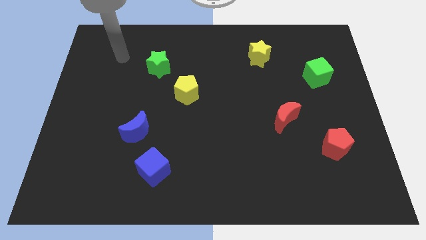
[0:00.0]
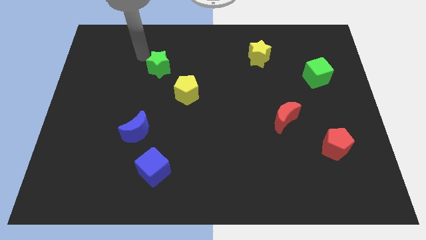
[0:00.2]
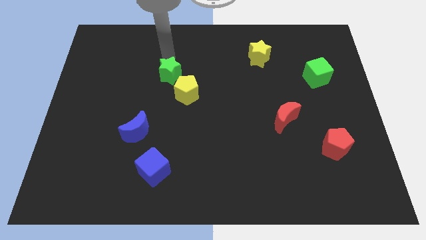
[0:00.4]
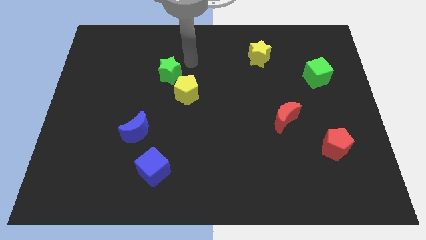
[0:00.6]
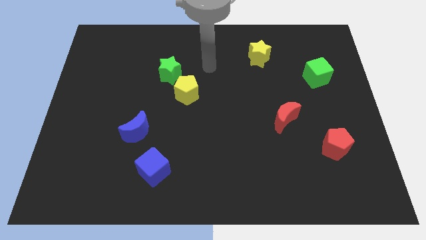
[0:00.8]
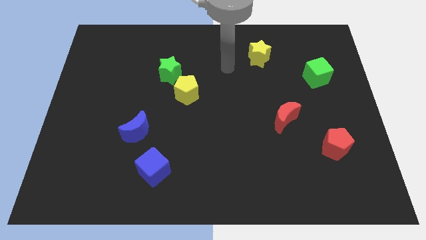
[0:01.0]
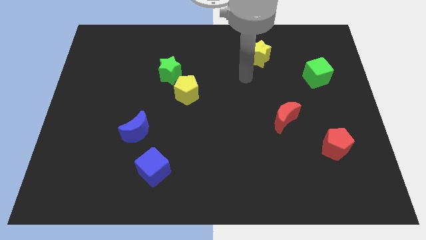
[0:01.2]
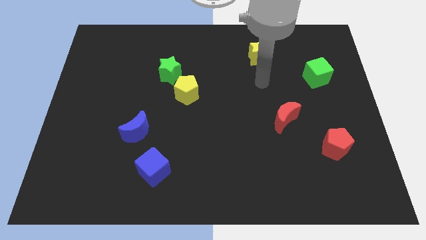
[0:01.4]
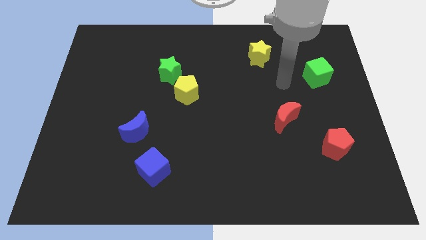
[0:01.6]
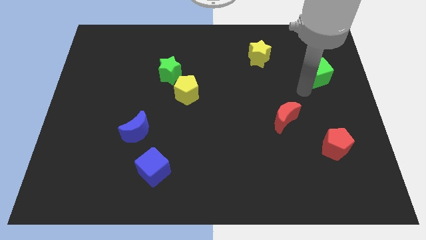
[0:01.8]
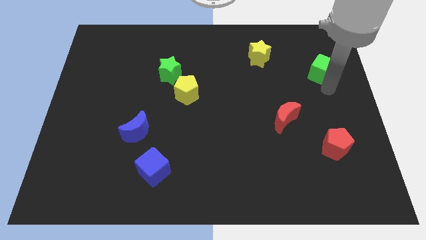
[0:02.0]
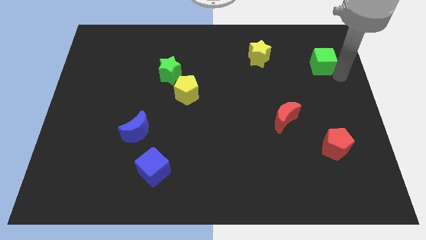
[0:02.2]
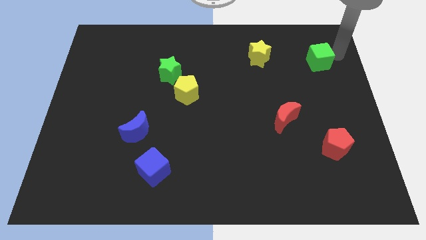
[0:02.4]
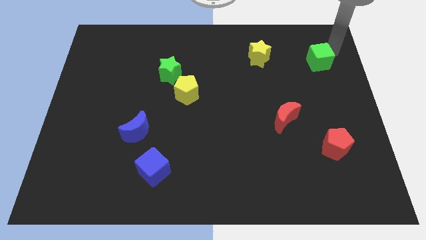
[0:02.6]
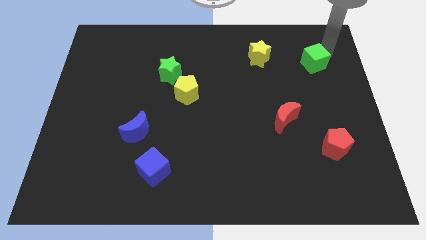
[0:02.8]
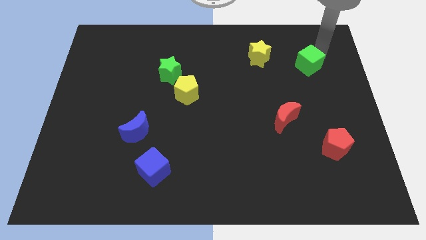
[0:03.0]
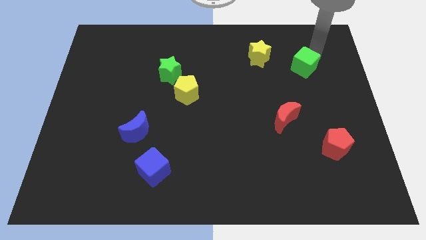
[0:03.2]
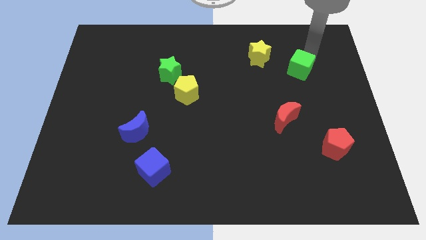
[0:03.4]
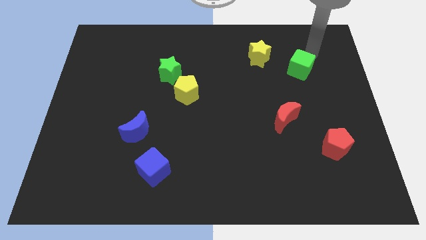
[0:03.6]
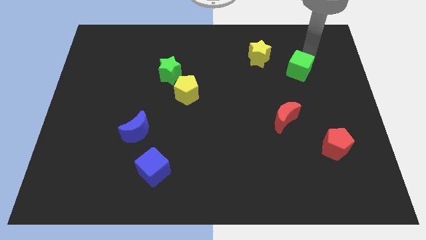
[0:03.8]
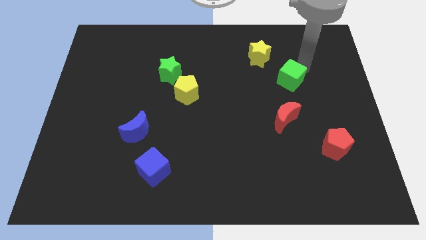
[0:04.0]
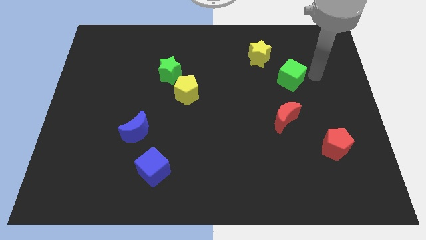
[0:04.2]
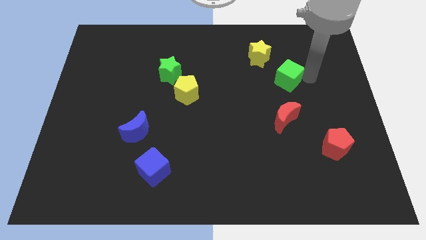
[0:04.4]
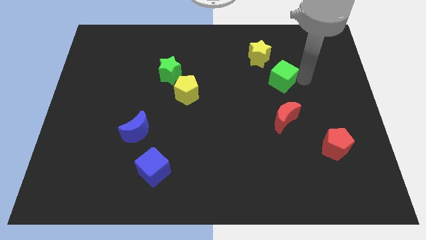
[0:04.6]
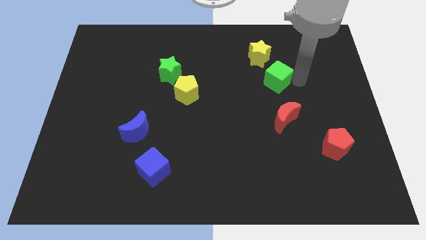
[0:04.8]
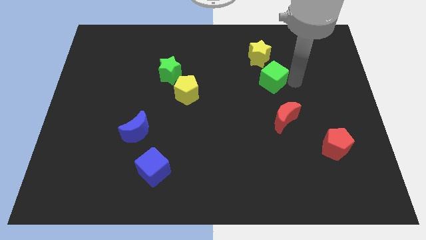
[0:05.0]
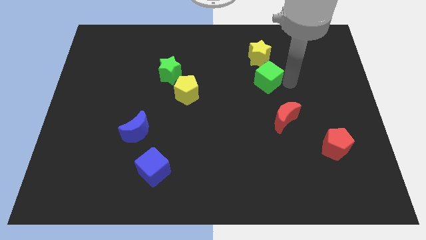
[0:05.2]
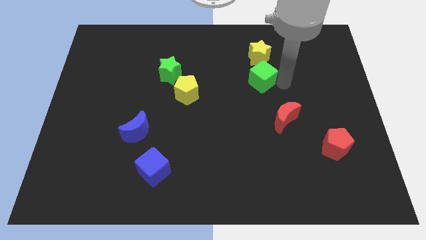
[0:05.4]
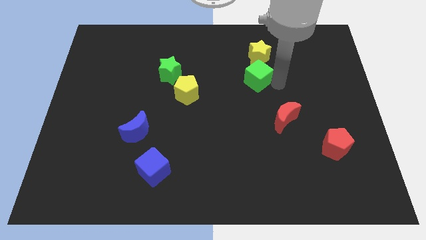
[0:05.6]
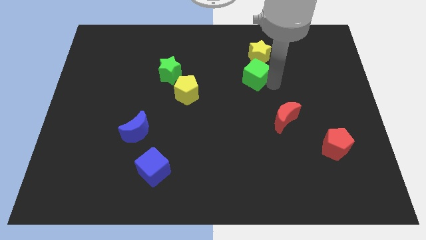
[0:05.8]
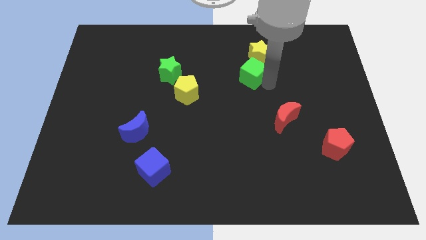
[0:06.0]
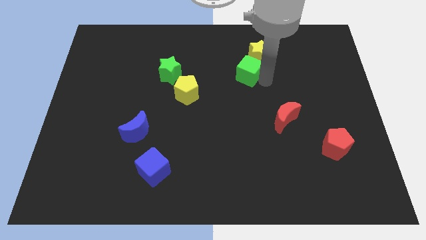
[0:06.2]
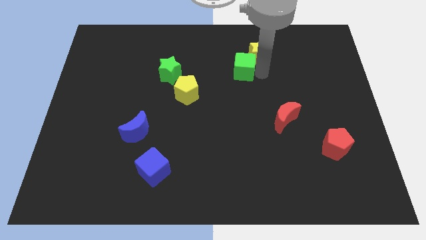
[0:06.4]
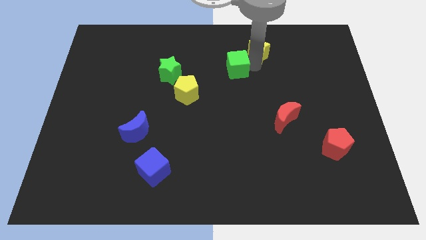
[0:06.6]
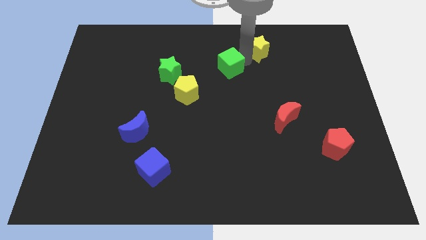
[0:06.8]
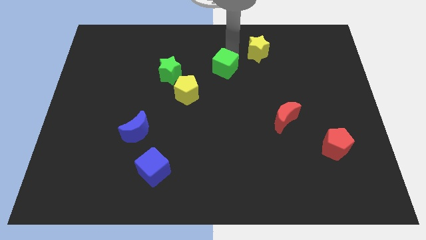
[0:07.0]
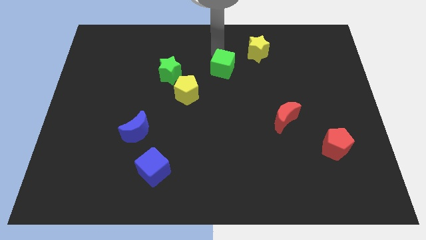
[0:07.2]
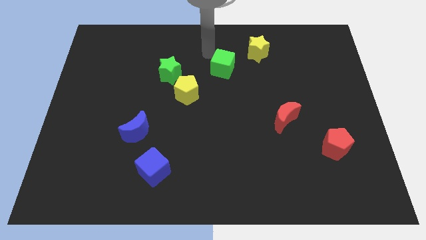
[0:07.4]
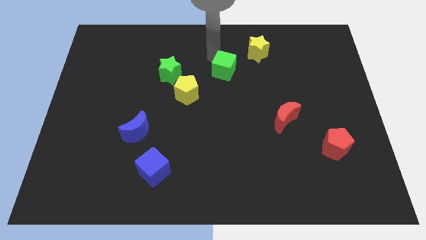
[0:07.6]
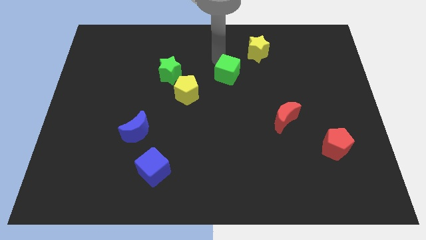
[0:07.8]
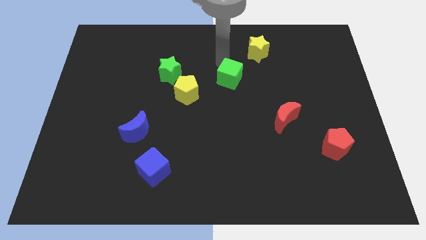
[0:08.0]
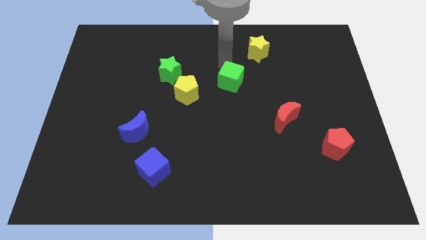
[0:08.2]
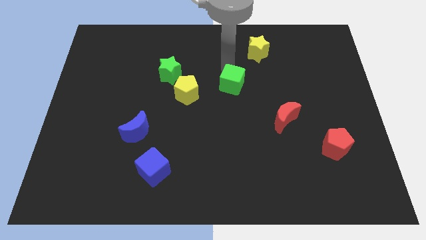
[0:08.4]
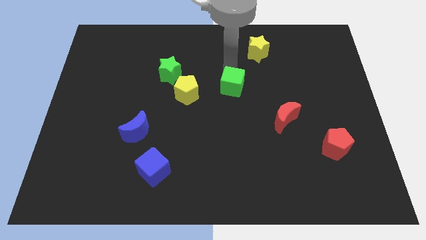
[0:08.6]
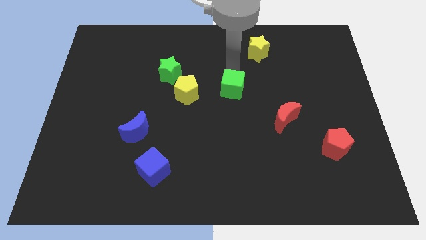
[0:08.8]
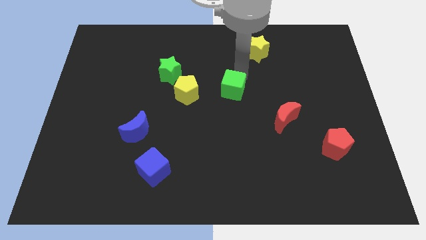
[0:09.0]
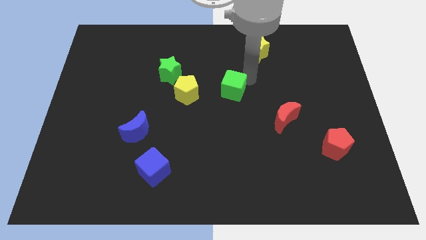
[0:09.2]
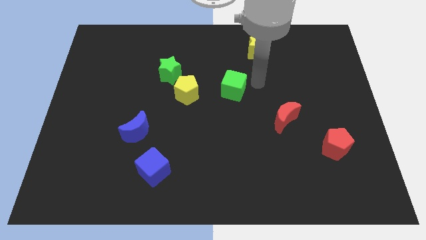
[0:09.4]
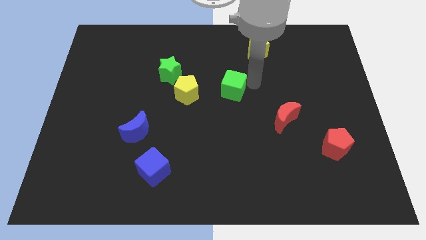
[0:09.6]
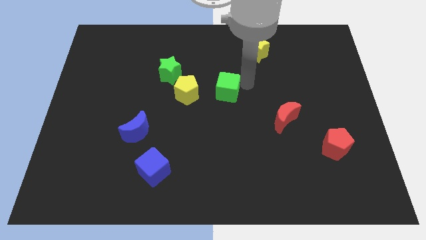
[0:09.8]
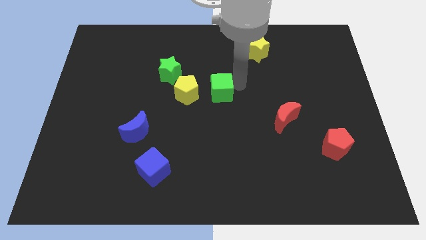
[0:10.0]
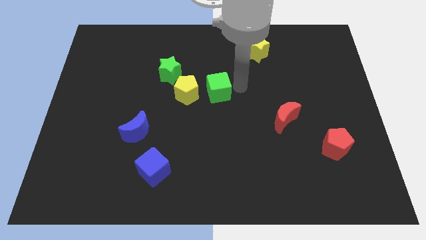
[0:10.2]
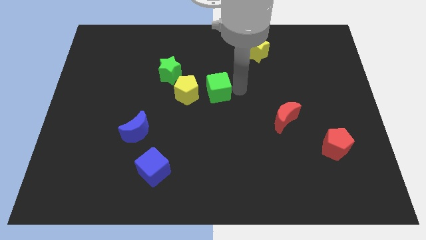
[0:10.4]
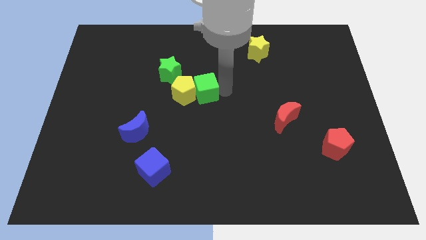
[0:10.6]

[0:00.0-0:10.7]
move the green cube next to the yellow pentagon

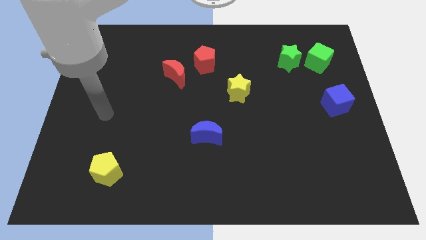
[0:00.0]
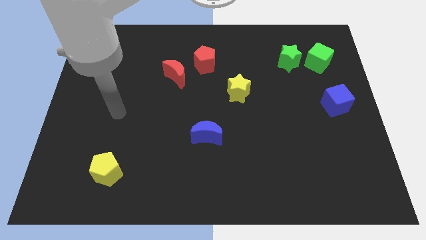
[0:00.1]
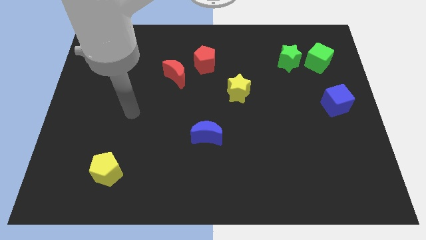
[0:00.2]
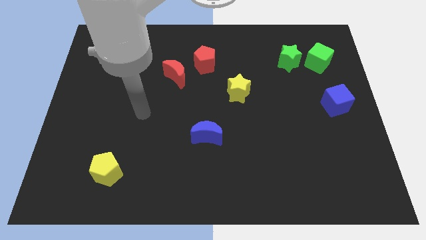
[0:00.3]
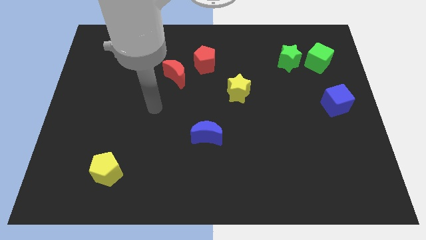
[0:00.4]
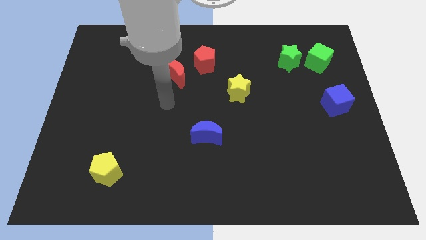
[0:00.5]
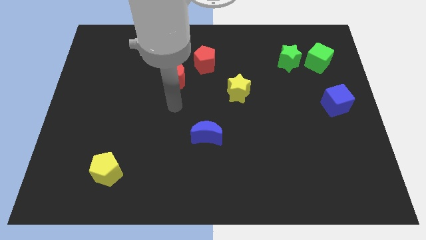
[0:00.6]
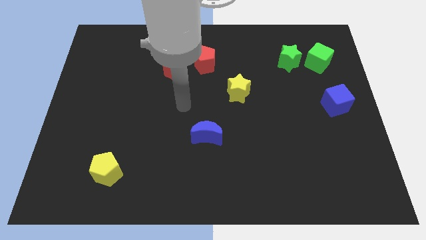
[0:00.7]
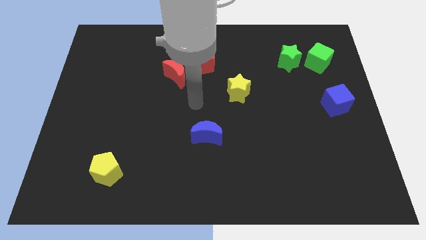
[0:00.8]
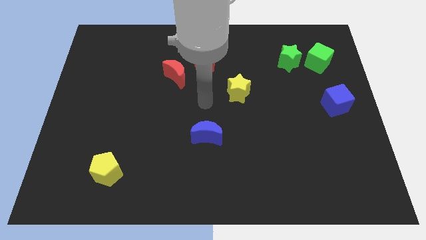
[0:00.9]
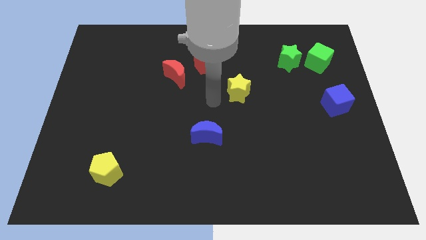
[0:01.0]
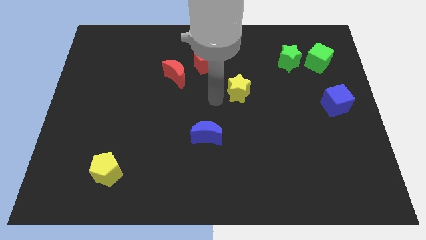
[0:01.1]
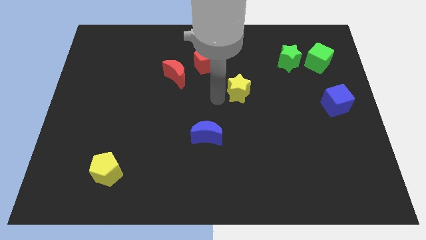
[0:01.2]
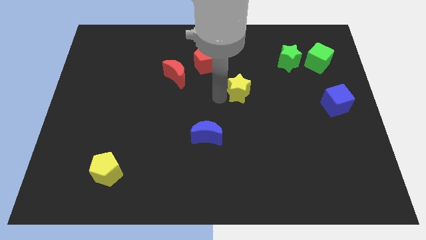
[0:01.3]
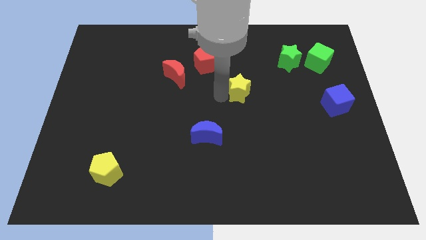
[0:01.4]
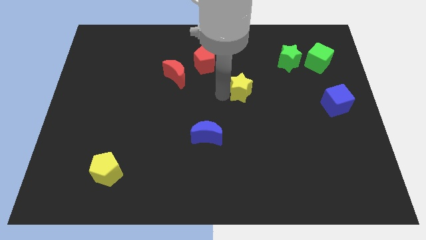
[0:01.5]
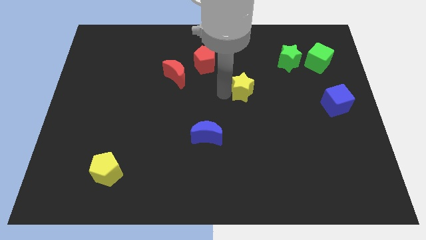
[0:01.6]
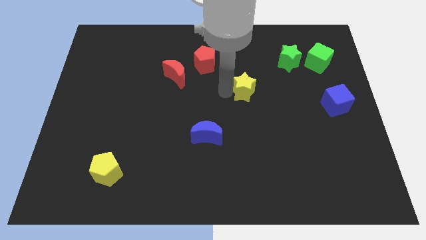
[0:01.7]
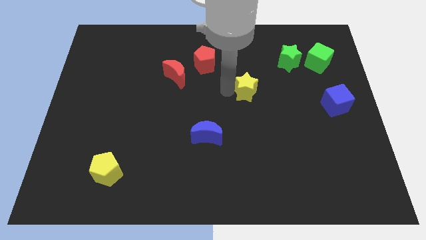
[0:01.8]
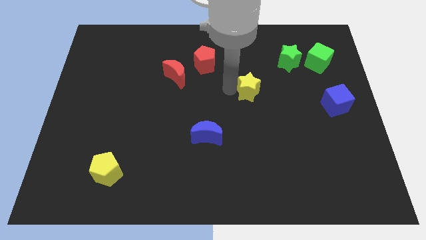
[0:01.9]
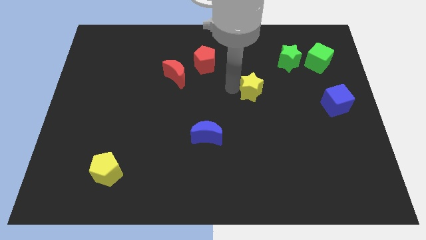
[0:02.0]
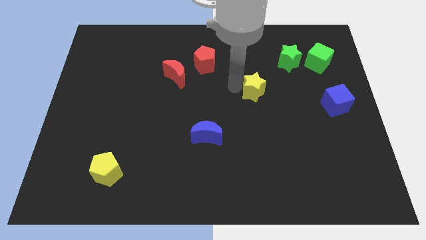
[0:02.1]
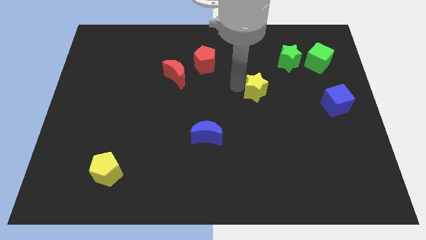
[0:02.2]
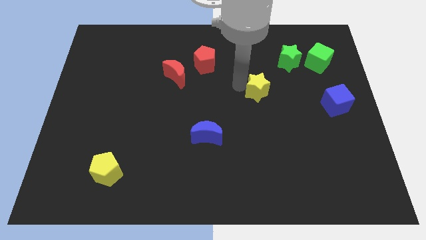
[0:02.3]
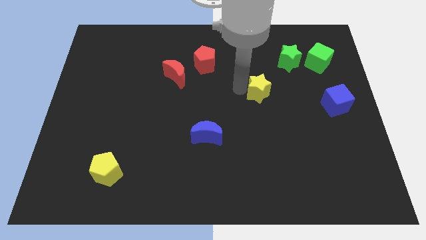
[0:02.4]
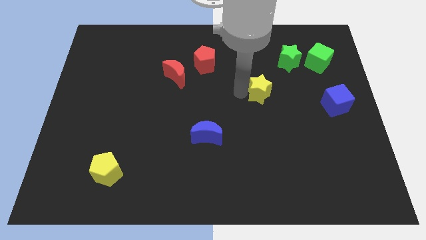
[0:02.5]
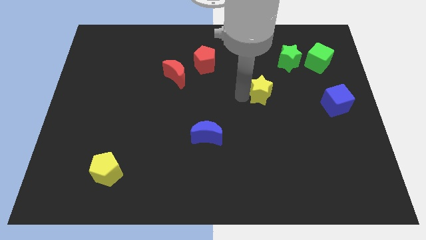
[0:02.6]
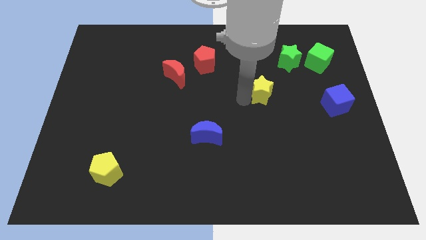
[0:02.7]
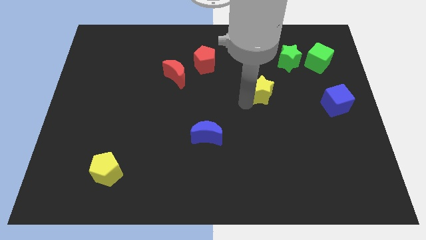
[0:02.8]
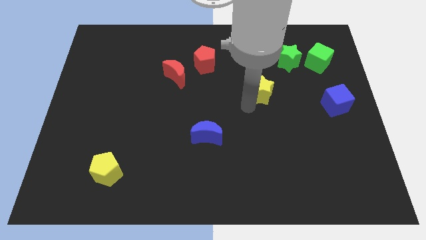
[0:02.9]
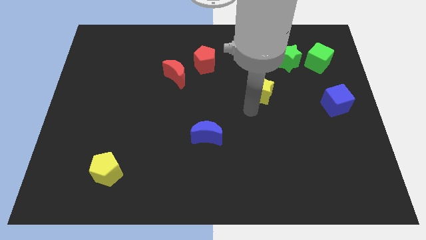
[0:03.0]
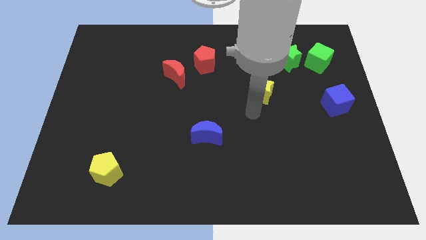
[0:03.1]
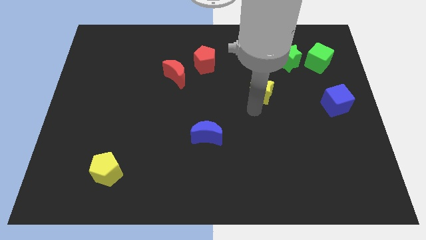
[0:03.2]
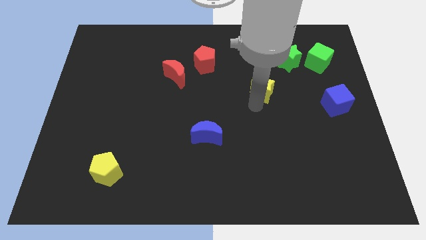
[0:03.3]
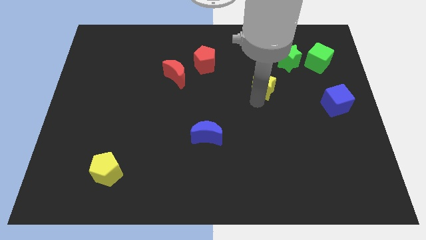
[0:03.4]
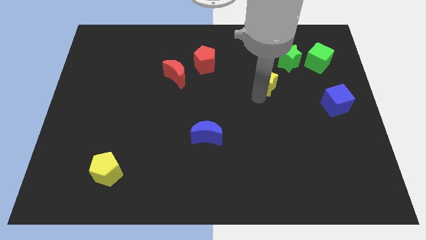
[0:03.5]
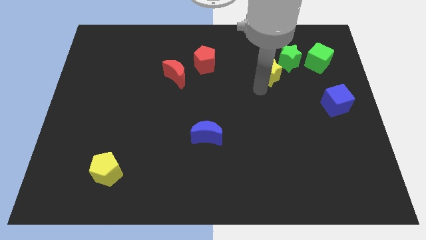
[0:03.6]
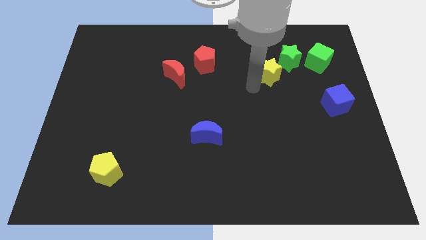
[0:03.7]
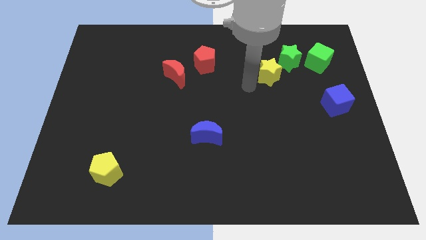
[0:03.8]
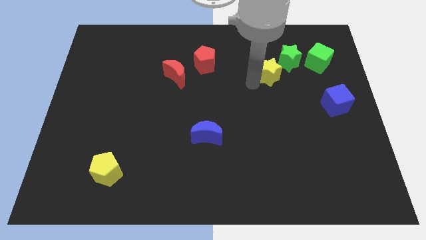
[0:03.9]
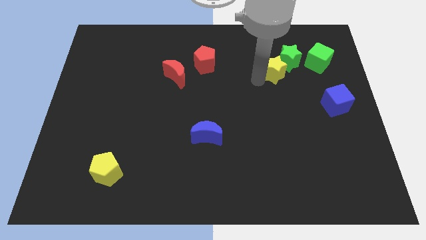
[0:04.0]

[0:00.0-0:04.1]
slide the yellow star close to the green star
